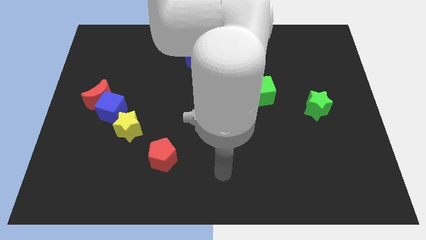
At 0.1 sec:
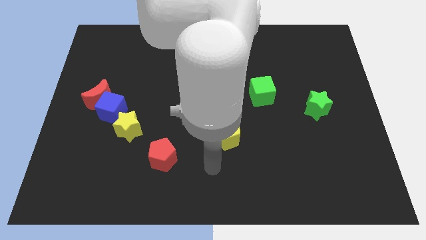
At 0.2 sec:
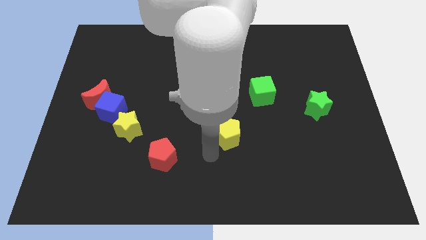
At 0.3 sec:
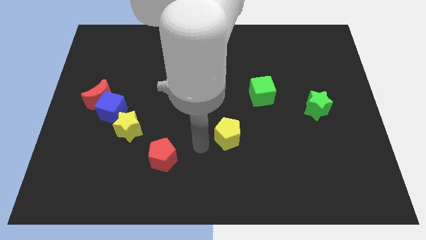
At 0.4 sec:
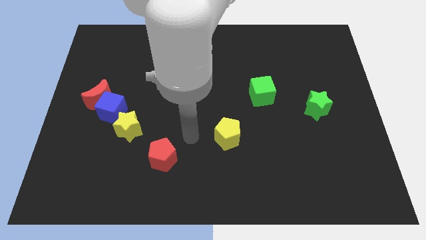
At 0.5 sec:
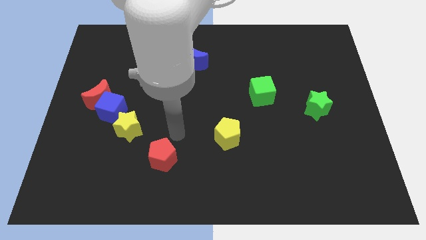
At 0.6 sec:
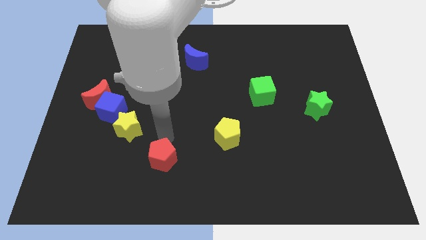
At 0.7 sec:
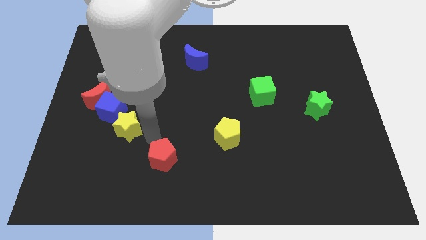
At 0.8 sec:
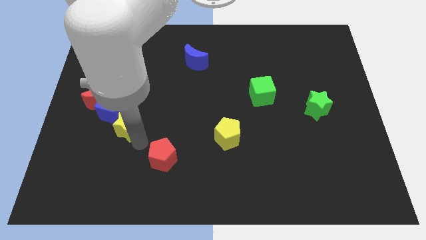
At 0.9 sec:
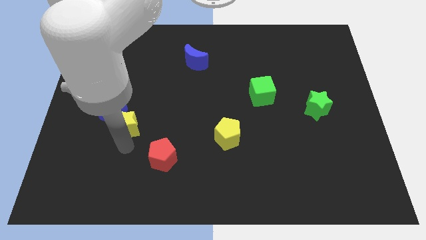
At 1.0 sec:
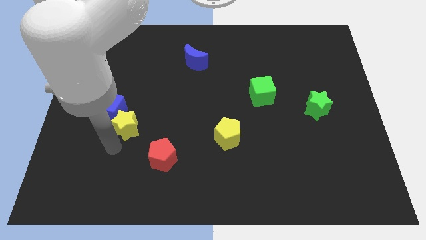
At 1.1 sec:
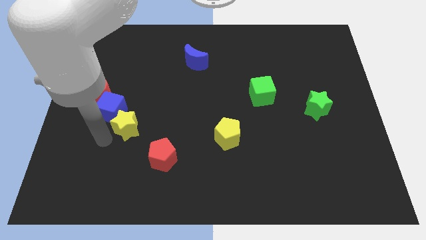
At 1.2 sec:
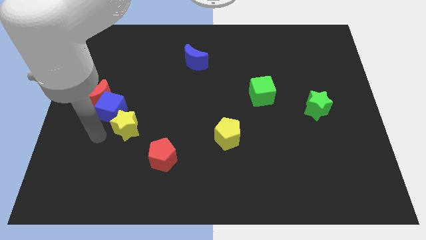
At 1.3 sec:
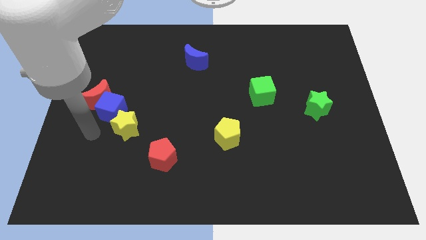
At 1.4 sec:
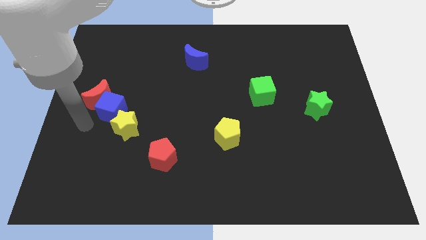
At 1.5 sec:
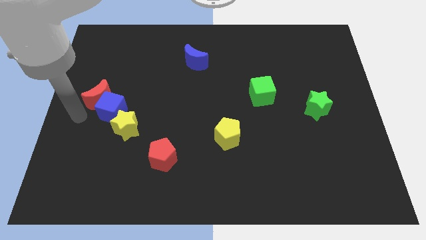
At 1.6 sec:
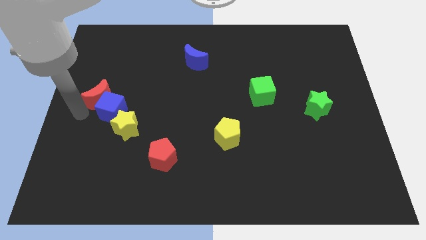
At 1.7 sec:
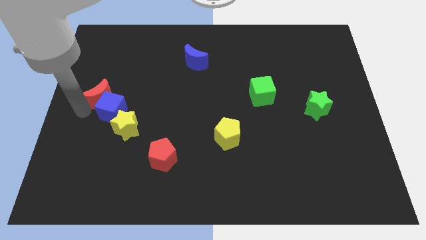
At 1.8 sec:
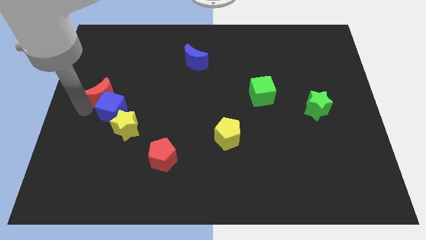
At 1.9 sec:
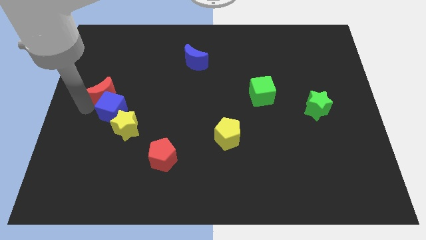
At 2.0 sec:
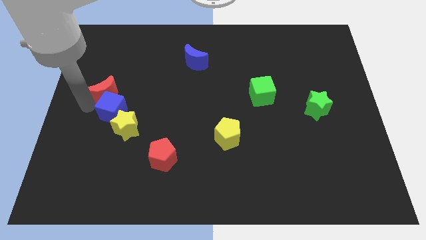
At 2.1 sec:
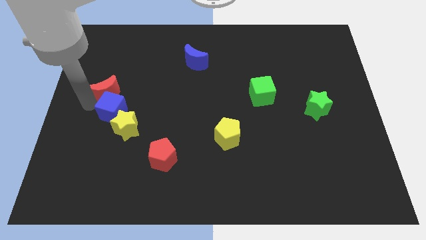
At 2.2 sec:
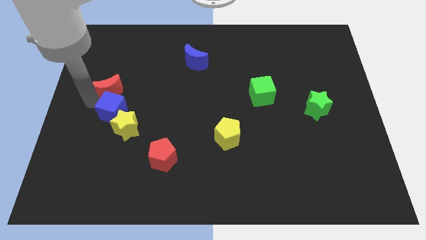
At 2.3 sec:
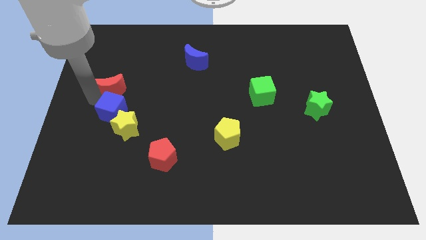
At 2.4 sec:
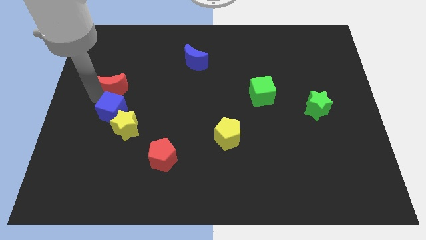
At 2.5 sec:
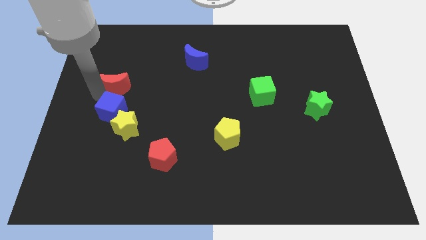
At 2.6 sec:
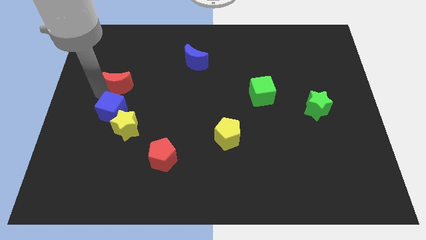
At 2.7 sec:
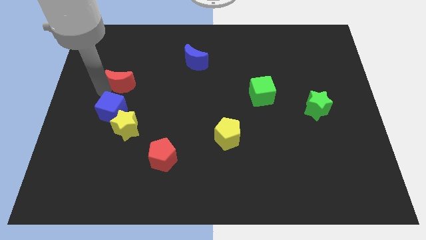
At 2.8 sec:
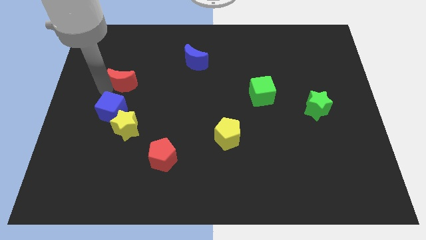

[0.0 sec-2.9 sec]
slightly slide the red moon upwards and right

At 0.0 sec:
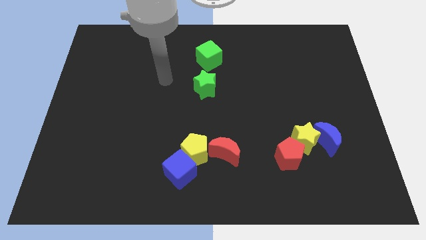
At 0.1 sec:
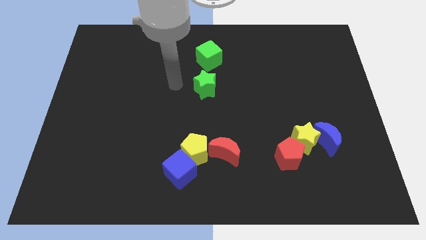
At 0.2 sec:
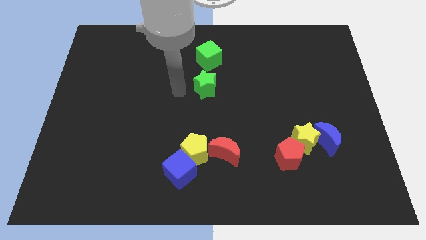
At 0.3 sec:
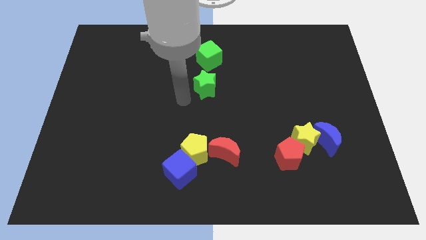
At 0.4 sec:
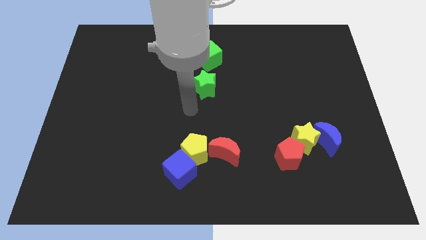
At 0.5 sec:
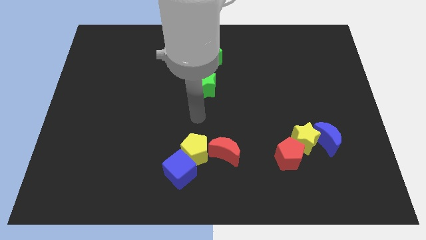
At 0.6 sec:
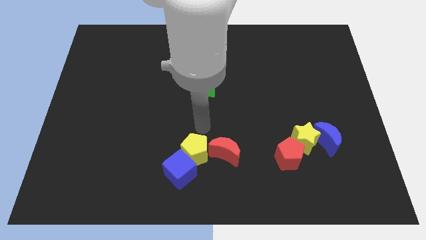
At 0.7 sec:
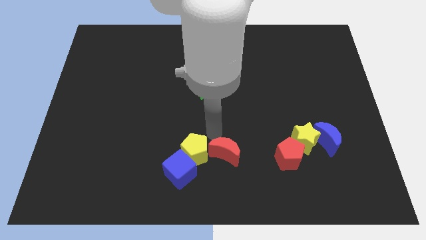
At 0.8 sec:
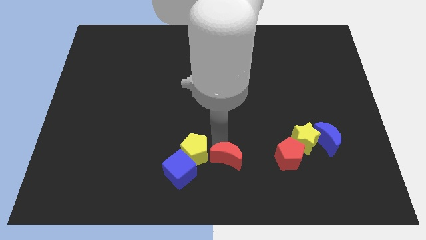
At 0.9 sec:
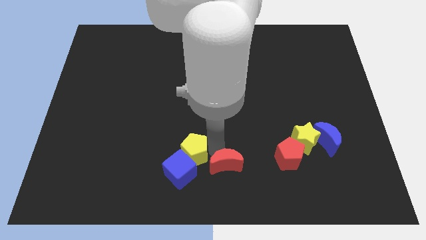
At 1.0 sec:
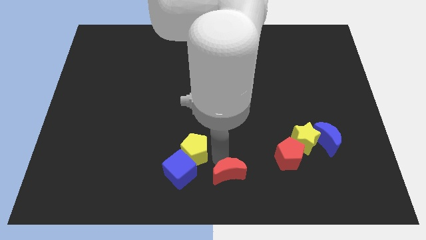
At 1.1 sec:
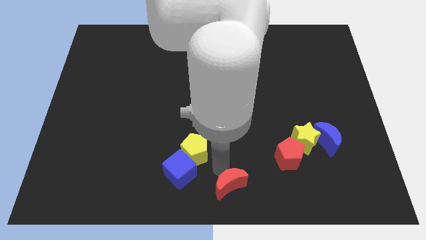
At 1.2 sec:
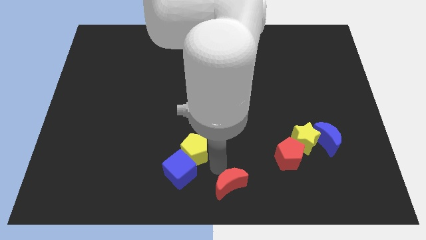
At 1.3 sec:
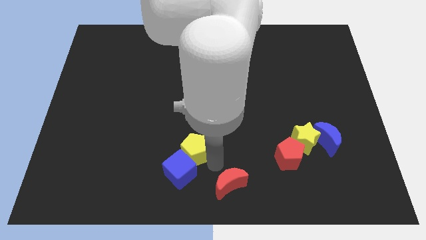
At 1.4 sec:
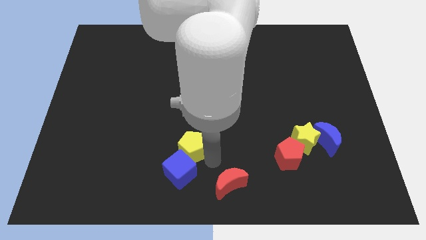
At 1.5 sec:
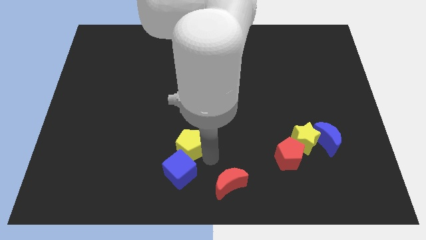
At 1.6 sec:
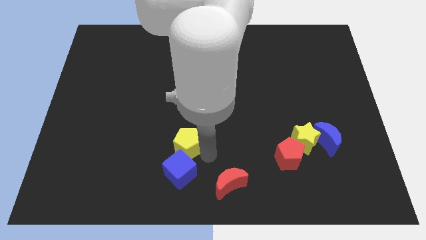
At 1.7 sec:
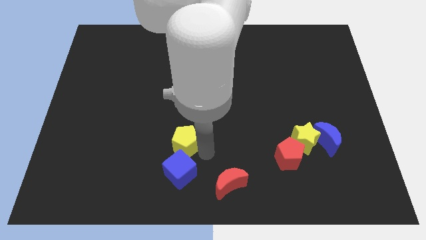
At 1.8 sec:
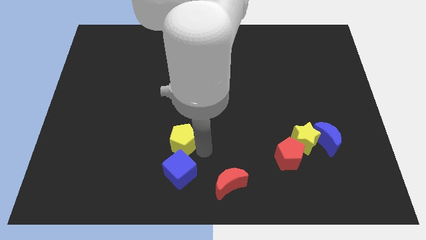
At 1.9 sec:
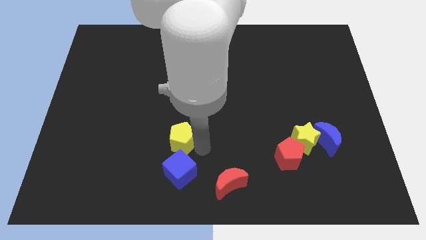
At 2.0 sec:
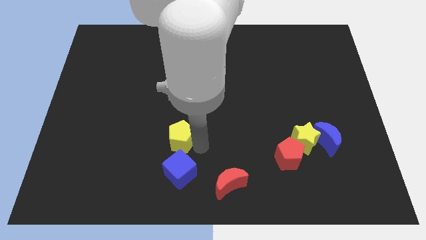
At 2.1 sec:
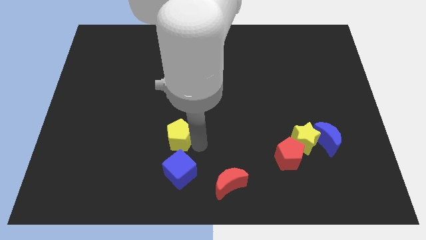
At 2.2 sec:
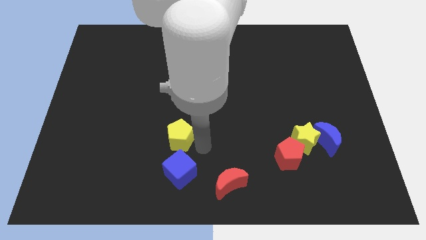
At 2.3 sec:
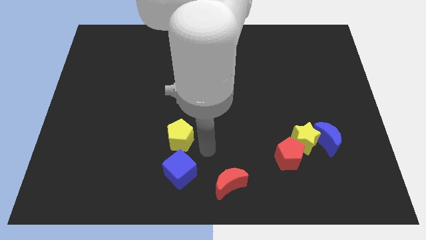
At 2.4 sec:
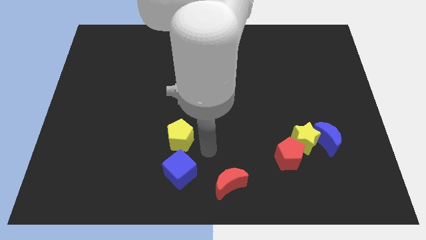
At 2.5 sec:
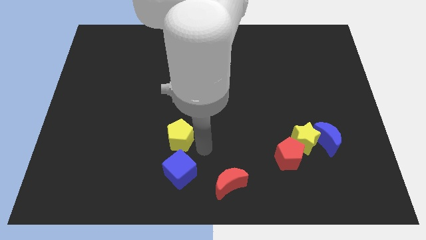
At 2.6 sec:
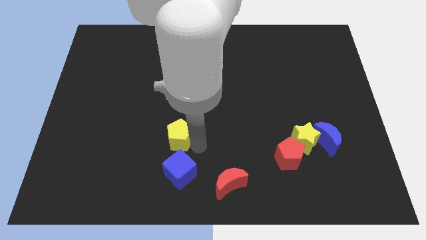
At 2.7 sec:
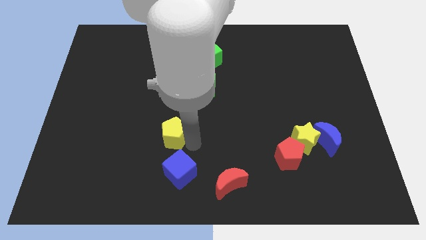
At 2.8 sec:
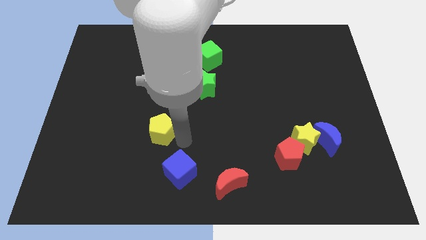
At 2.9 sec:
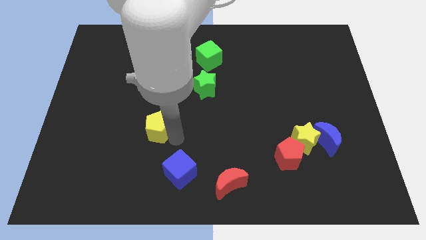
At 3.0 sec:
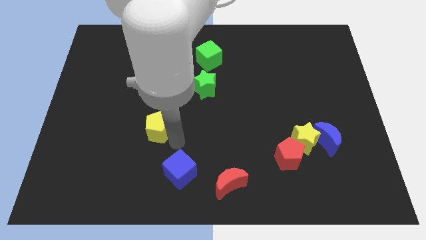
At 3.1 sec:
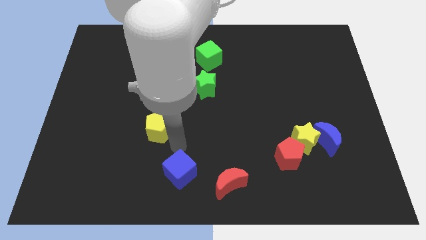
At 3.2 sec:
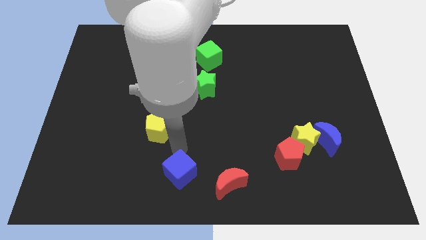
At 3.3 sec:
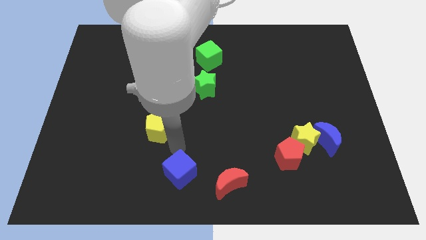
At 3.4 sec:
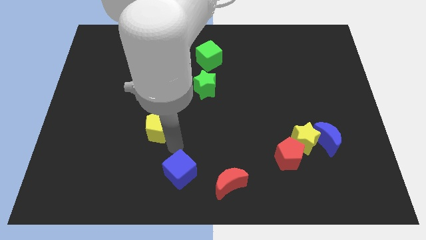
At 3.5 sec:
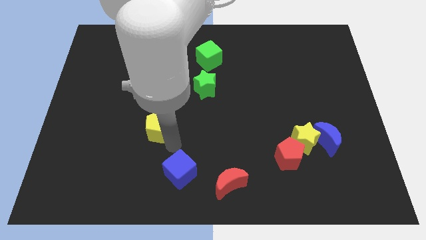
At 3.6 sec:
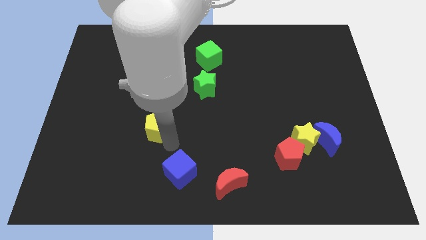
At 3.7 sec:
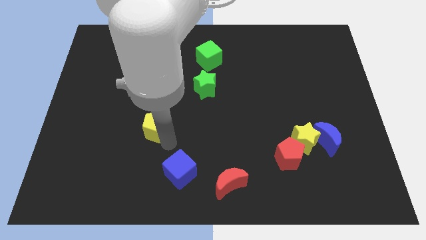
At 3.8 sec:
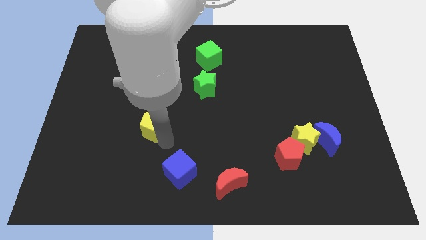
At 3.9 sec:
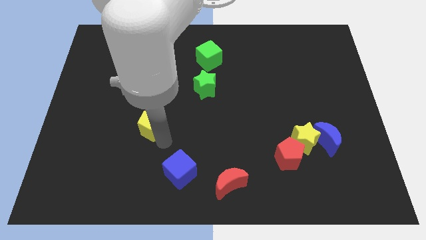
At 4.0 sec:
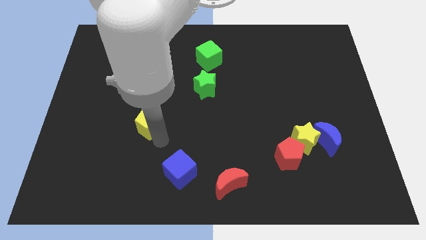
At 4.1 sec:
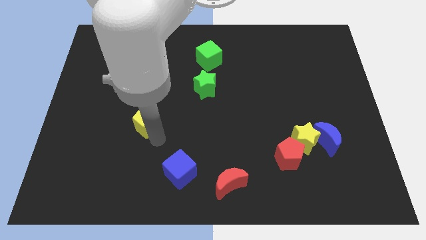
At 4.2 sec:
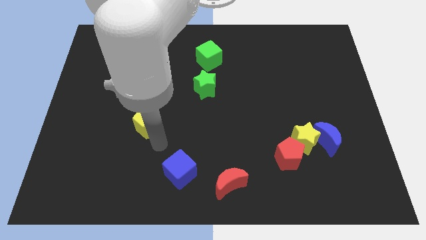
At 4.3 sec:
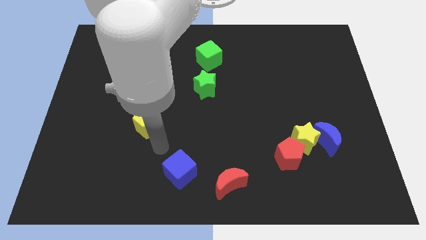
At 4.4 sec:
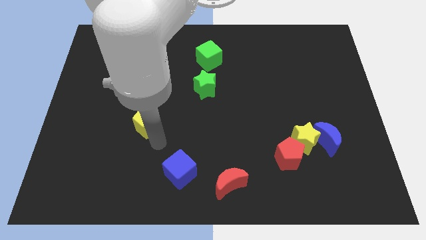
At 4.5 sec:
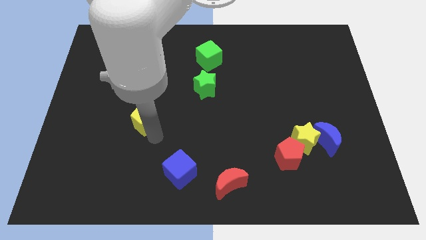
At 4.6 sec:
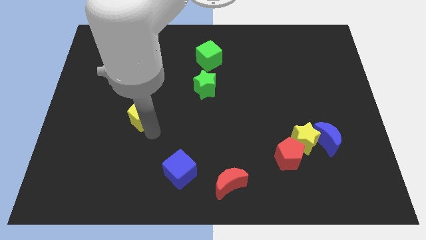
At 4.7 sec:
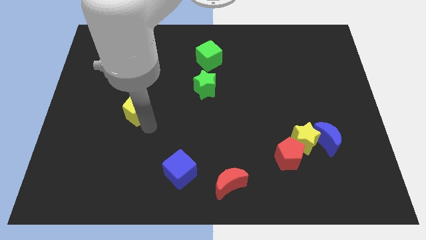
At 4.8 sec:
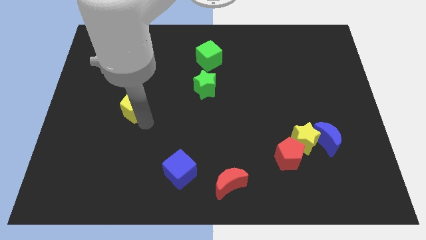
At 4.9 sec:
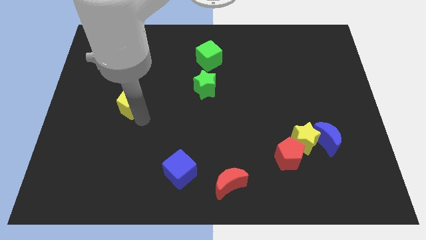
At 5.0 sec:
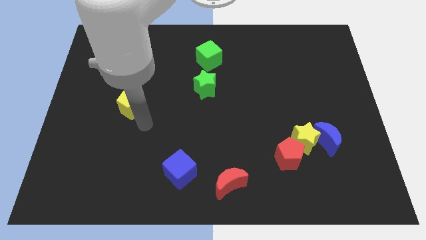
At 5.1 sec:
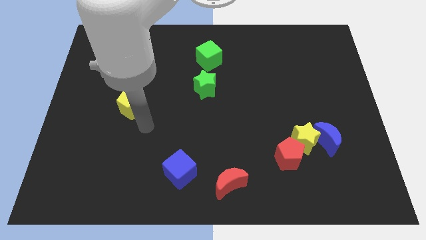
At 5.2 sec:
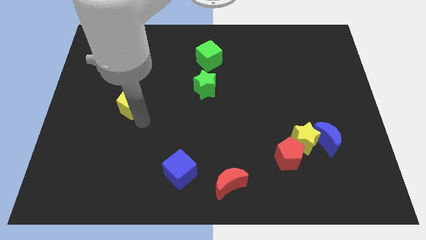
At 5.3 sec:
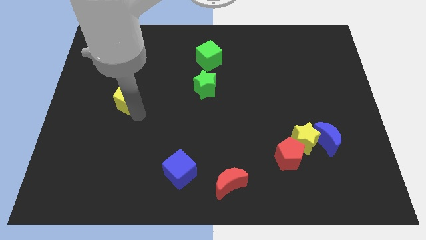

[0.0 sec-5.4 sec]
push the yellow pentagon up and then to the left
